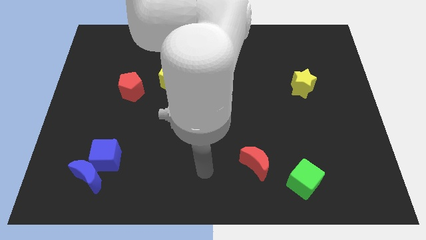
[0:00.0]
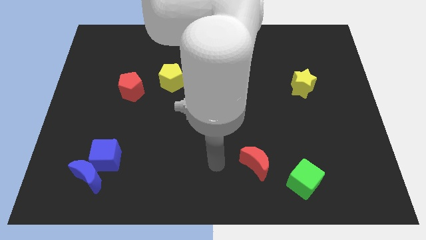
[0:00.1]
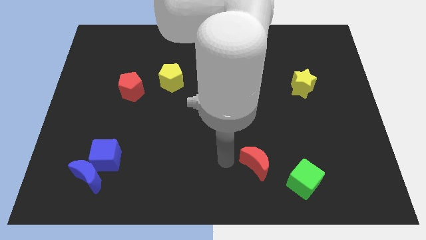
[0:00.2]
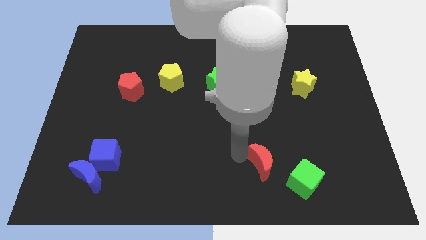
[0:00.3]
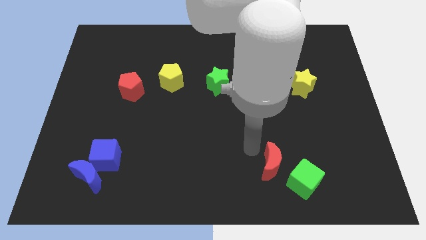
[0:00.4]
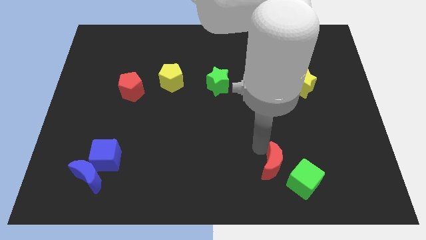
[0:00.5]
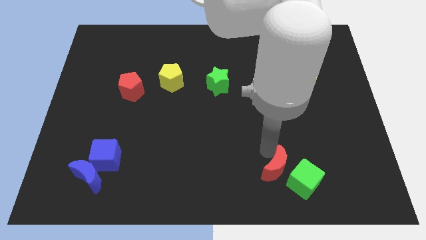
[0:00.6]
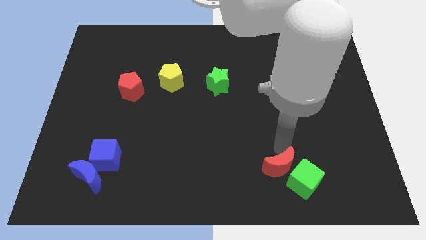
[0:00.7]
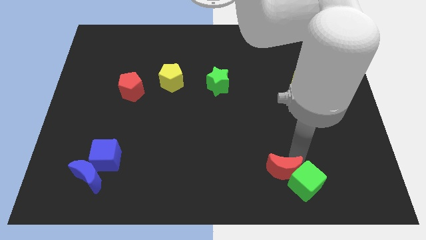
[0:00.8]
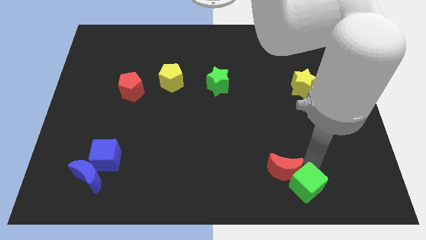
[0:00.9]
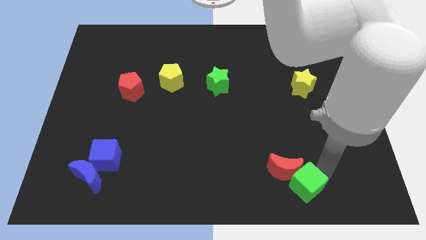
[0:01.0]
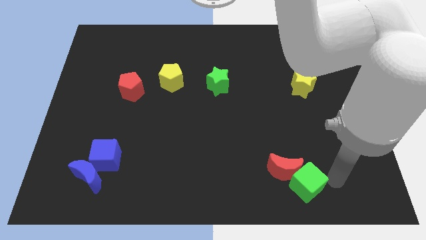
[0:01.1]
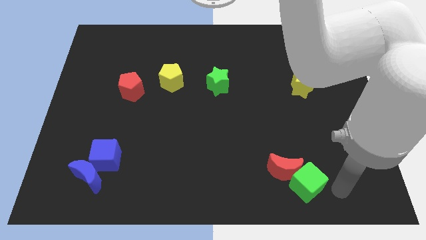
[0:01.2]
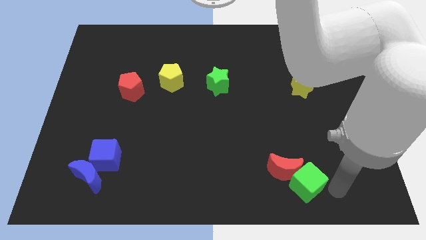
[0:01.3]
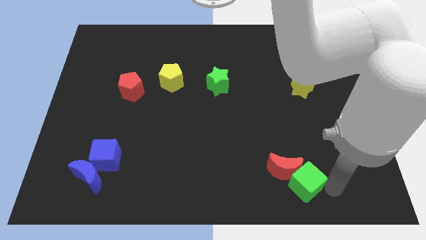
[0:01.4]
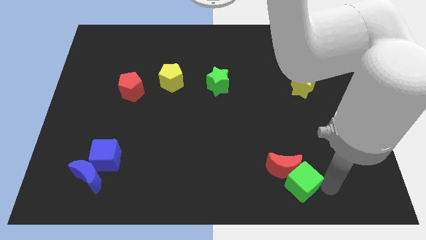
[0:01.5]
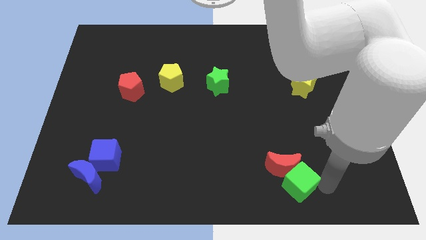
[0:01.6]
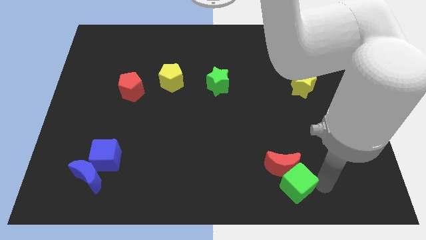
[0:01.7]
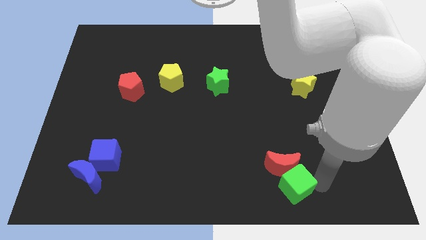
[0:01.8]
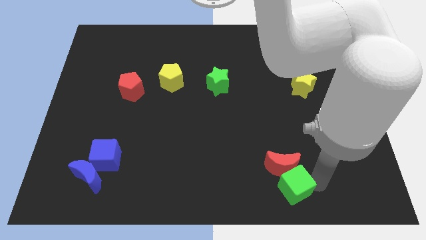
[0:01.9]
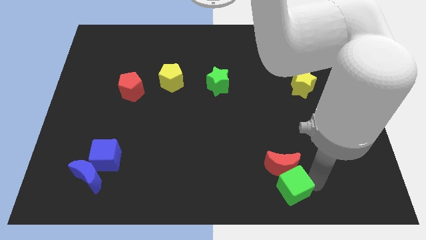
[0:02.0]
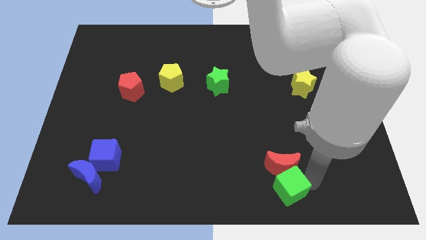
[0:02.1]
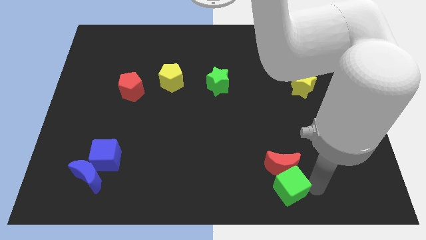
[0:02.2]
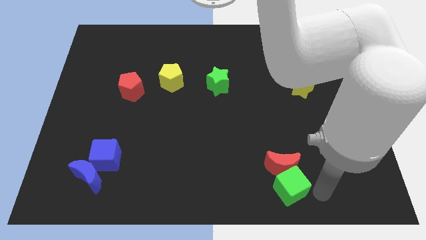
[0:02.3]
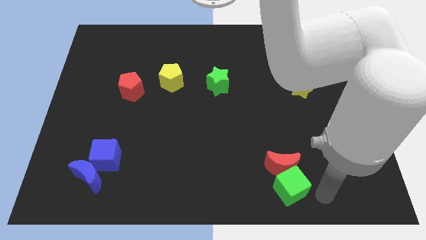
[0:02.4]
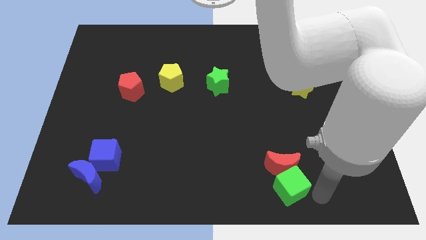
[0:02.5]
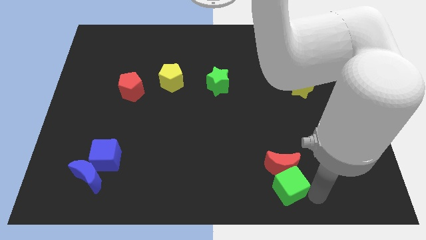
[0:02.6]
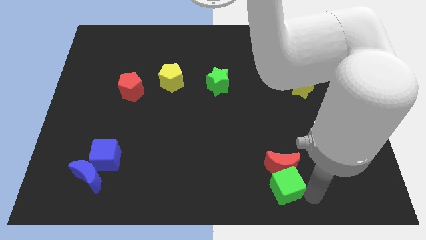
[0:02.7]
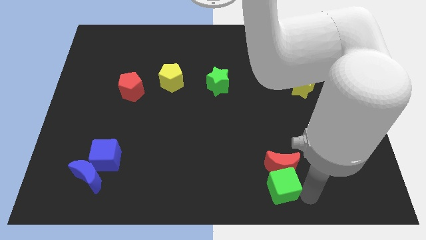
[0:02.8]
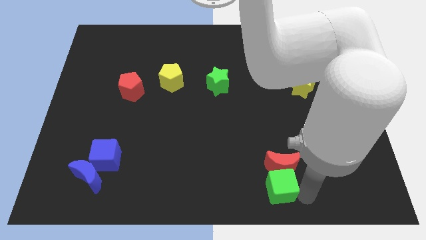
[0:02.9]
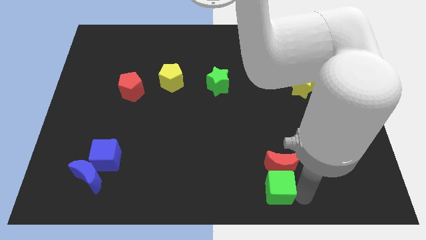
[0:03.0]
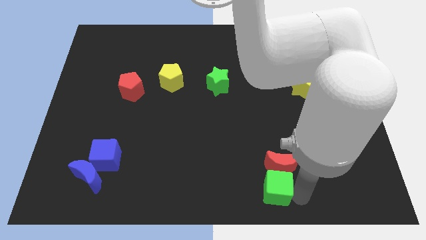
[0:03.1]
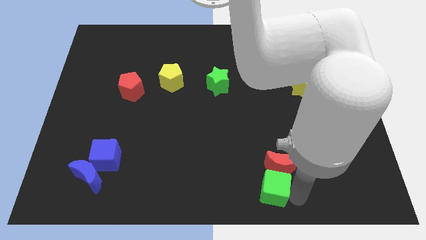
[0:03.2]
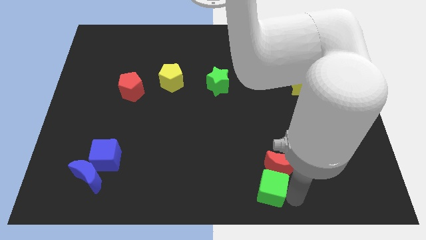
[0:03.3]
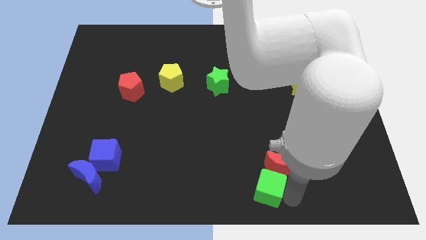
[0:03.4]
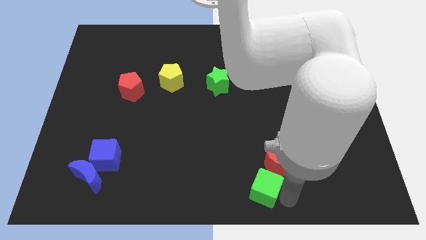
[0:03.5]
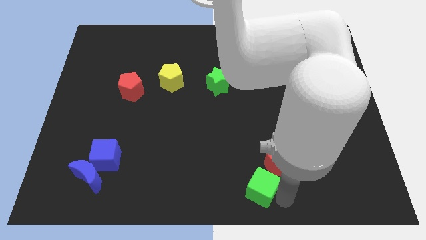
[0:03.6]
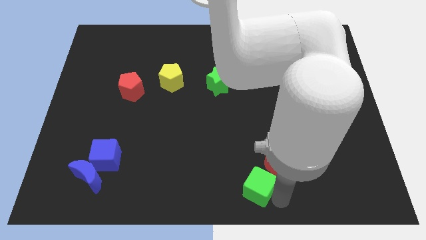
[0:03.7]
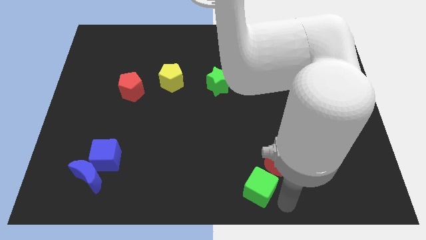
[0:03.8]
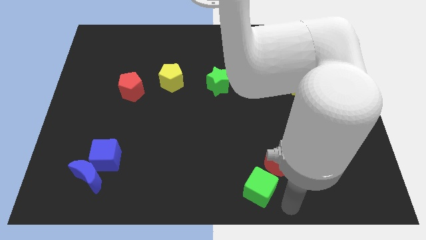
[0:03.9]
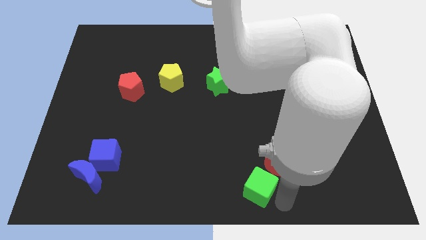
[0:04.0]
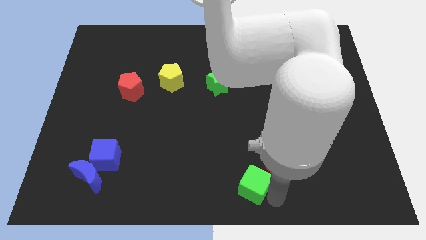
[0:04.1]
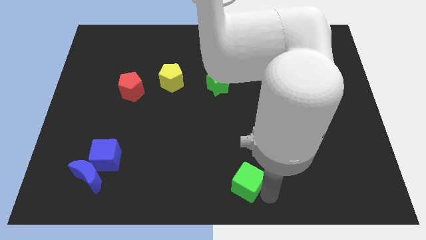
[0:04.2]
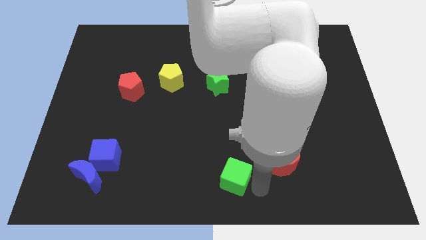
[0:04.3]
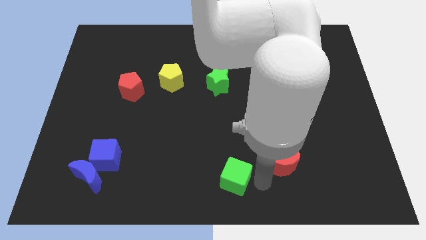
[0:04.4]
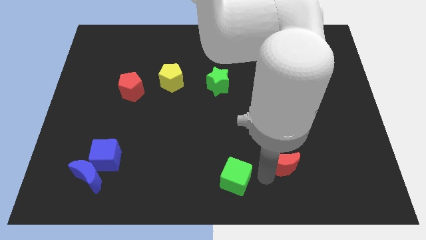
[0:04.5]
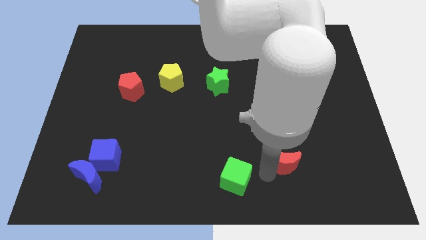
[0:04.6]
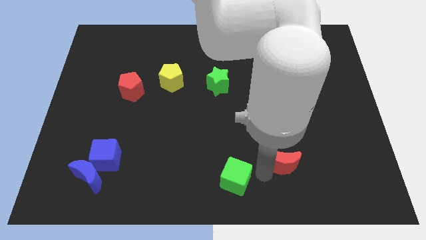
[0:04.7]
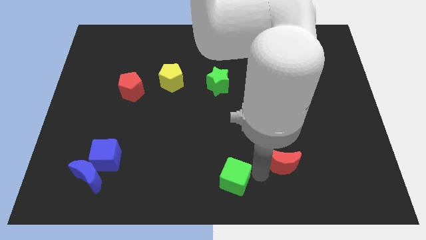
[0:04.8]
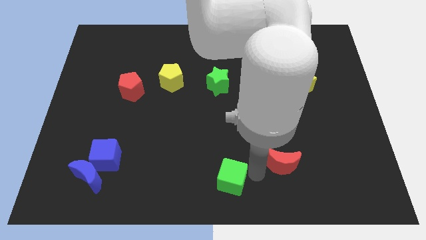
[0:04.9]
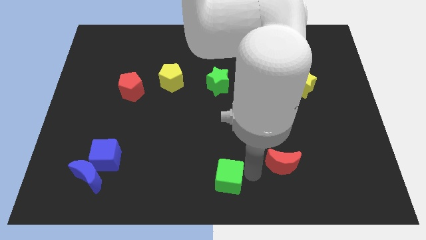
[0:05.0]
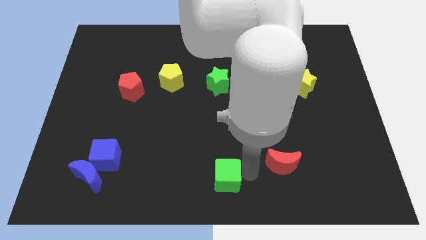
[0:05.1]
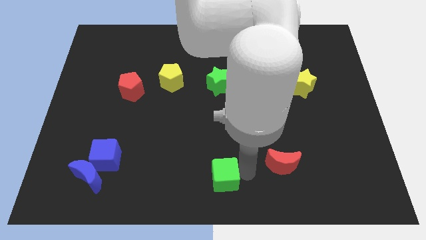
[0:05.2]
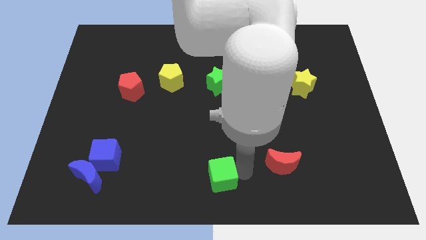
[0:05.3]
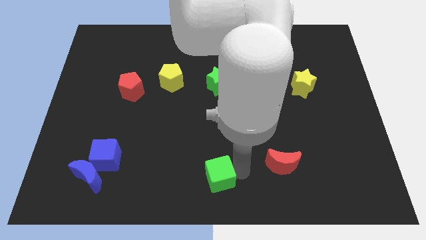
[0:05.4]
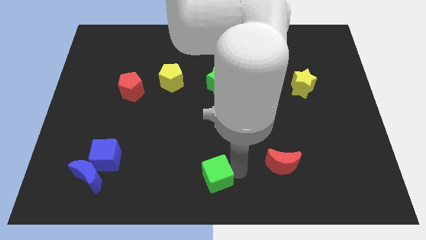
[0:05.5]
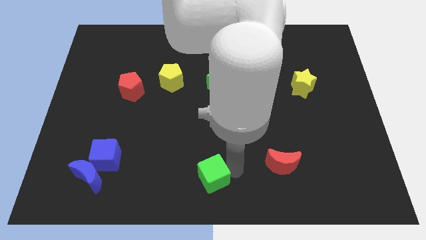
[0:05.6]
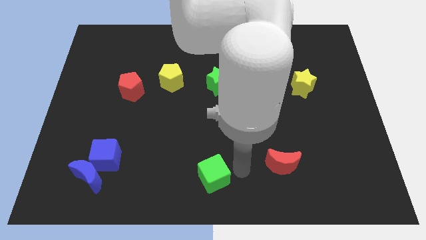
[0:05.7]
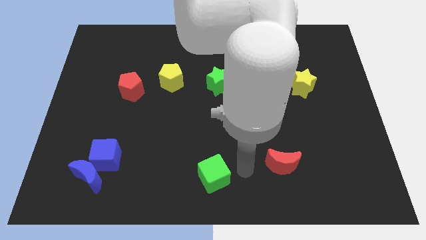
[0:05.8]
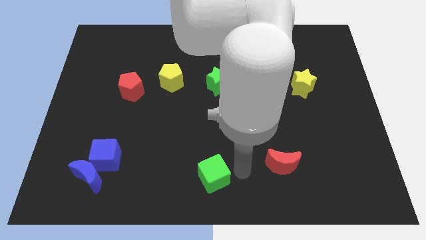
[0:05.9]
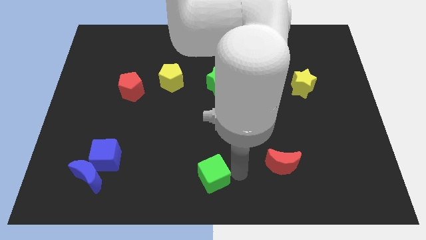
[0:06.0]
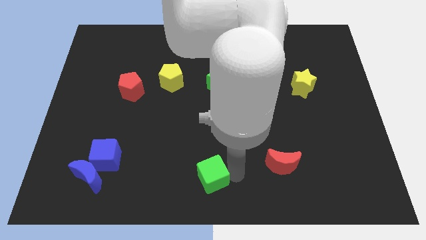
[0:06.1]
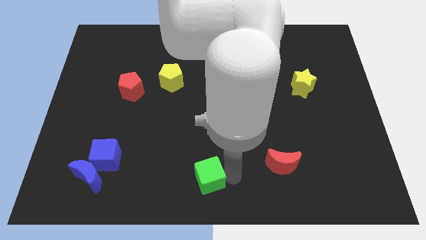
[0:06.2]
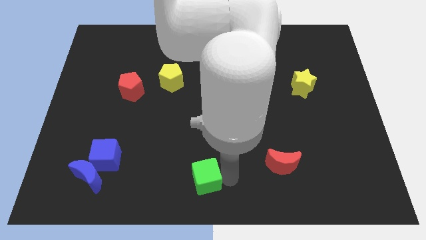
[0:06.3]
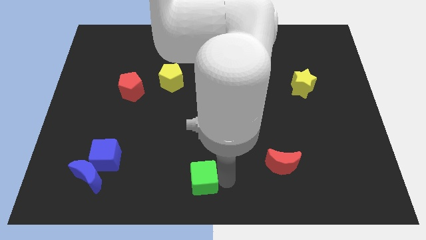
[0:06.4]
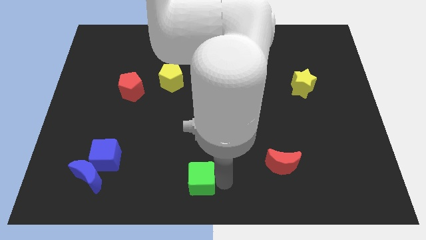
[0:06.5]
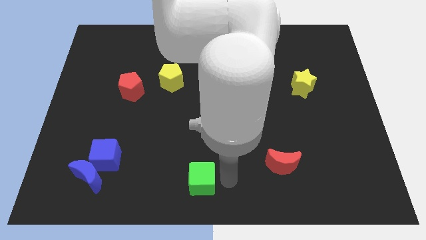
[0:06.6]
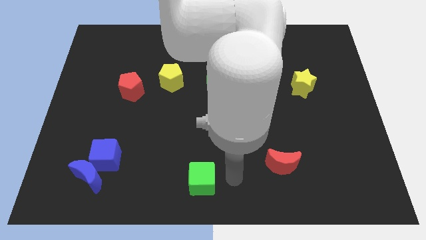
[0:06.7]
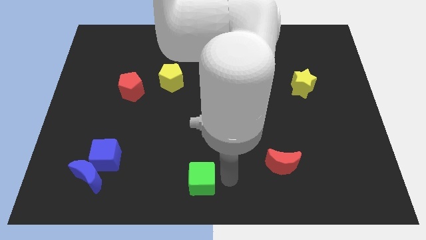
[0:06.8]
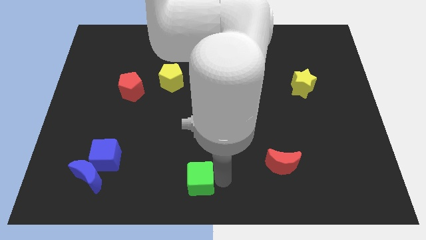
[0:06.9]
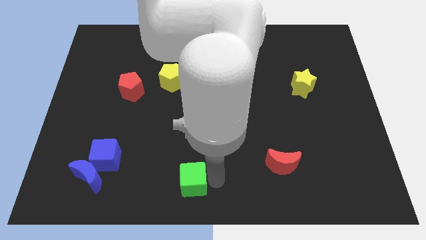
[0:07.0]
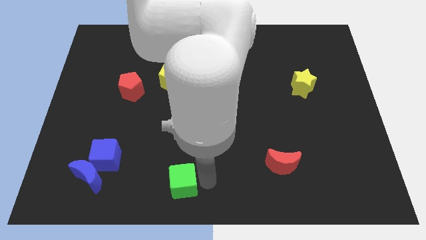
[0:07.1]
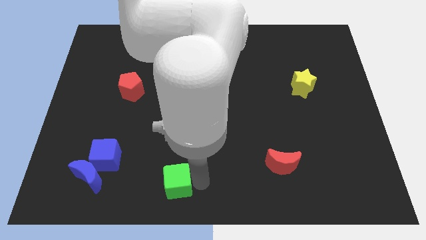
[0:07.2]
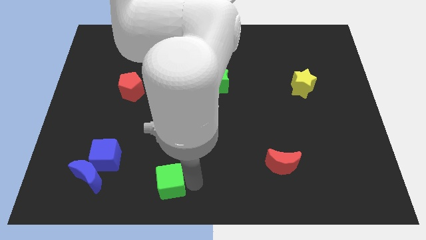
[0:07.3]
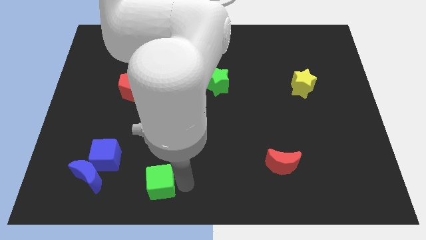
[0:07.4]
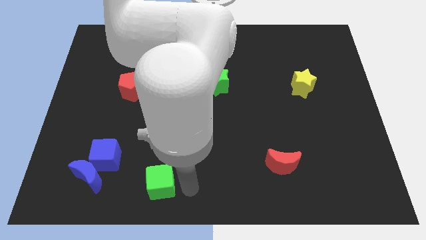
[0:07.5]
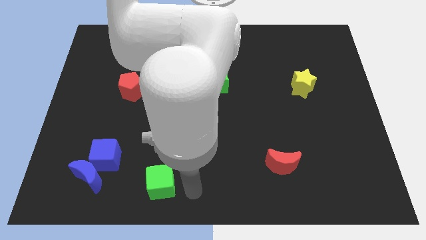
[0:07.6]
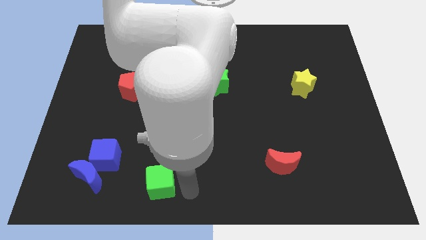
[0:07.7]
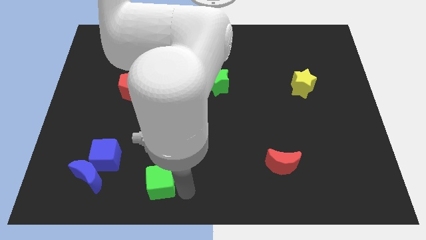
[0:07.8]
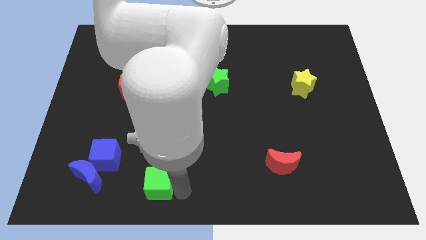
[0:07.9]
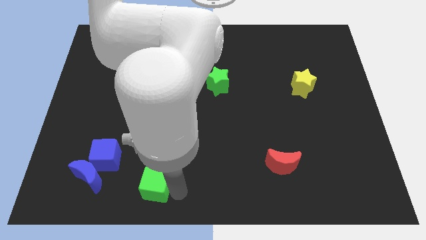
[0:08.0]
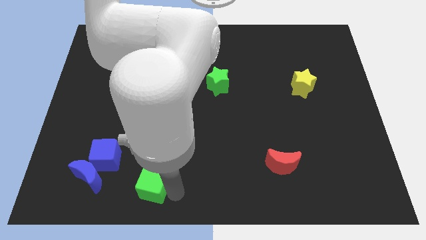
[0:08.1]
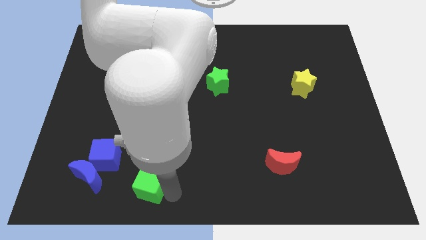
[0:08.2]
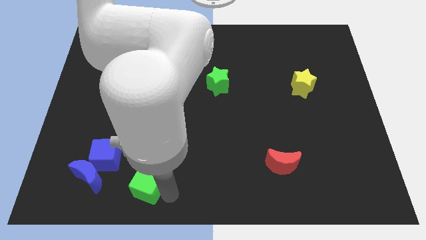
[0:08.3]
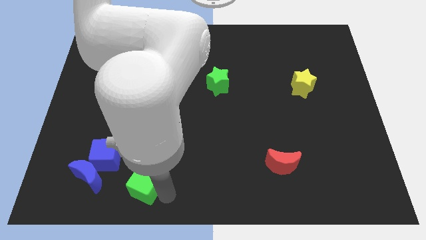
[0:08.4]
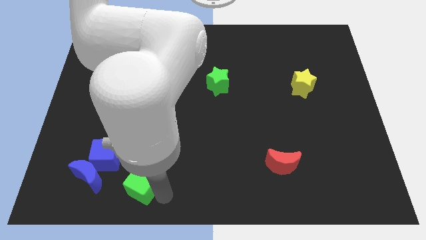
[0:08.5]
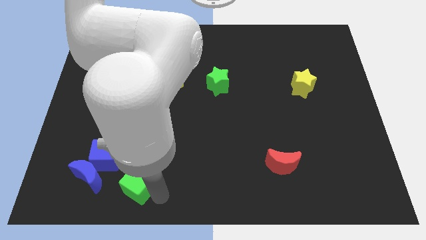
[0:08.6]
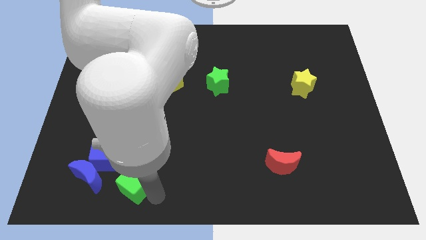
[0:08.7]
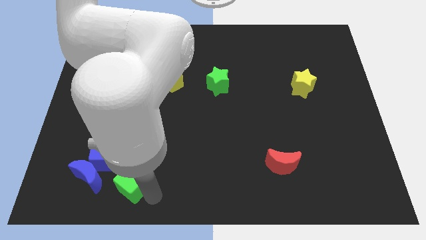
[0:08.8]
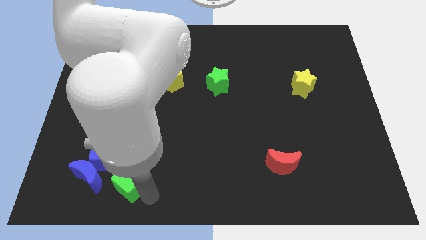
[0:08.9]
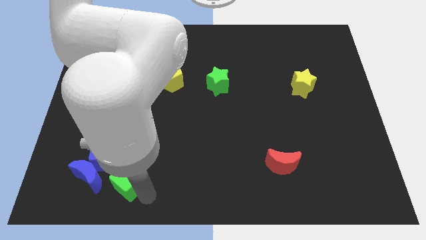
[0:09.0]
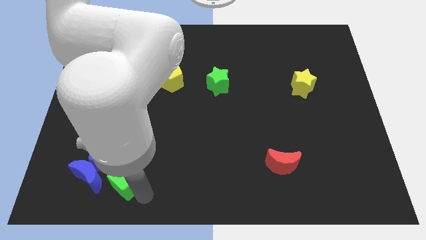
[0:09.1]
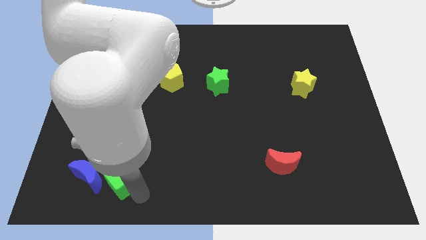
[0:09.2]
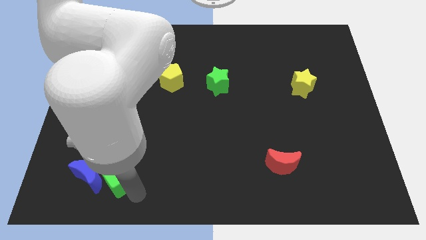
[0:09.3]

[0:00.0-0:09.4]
move the green cube diagonally up and to the right of the blue moon
